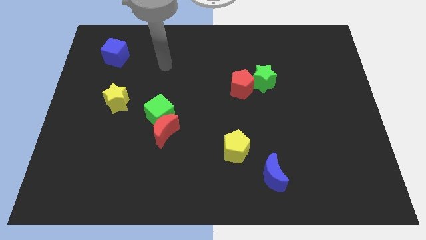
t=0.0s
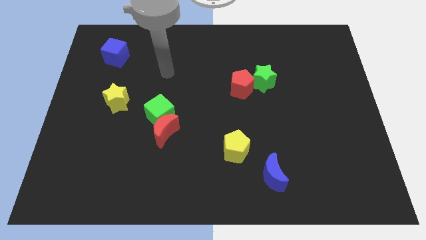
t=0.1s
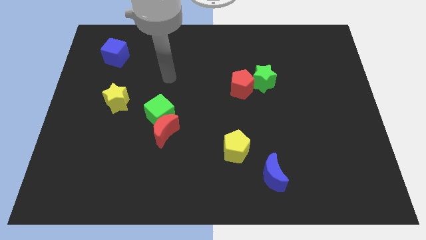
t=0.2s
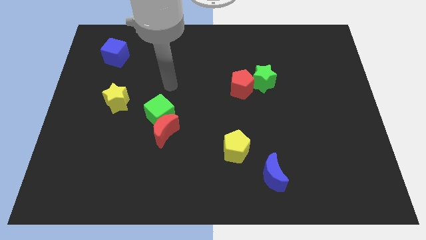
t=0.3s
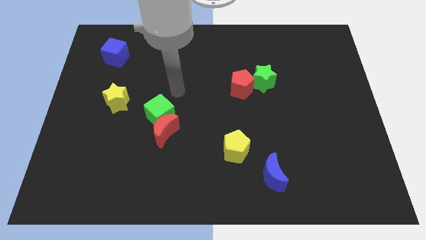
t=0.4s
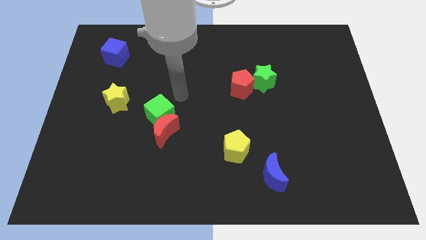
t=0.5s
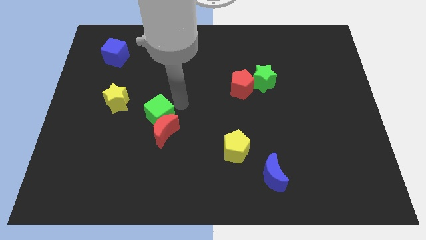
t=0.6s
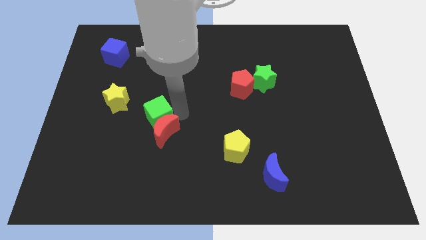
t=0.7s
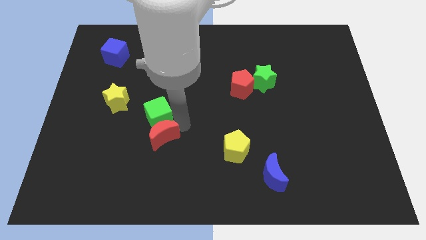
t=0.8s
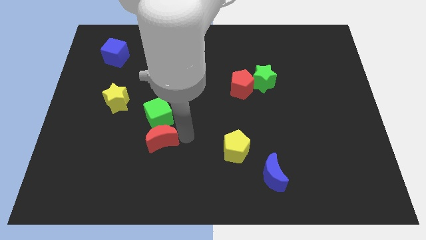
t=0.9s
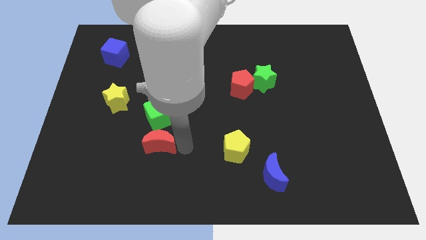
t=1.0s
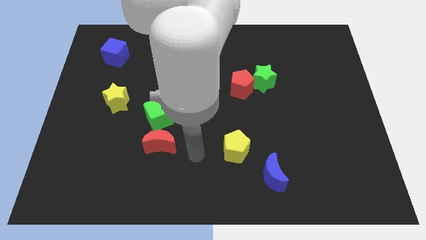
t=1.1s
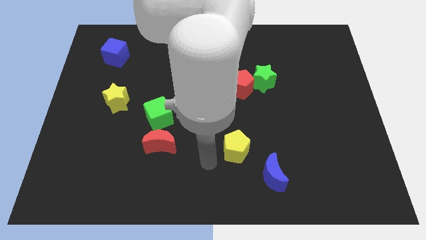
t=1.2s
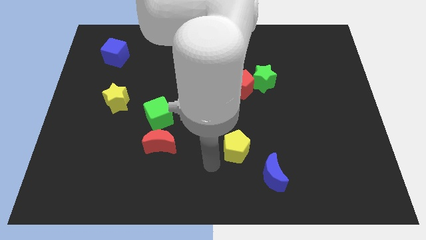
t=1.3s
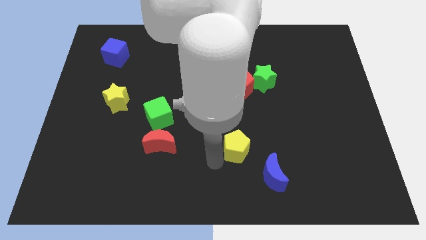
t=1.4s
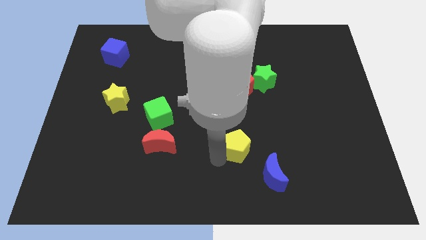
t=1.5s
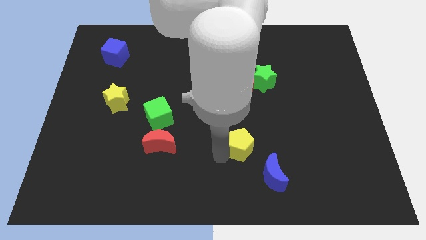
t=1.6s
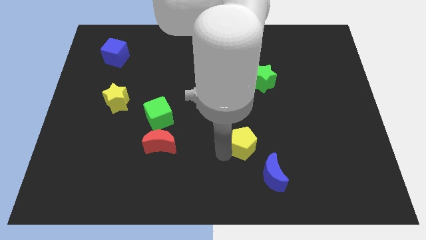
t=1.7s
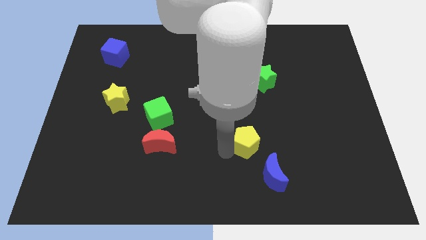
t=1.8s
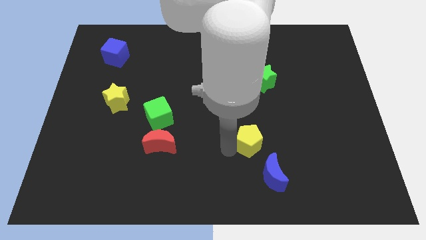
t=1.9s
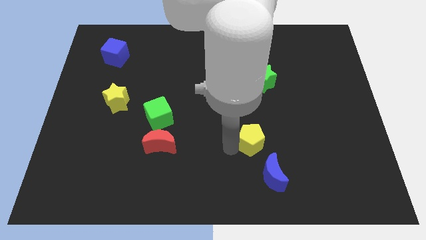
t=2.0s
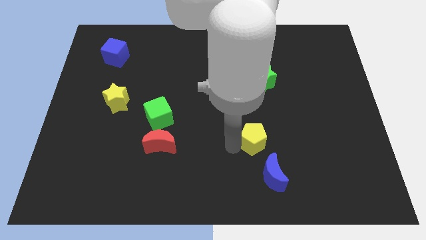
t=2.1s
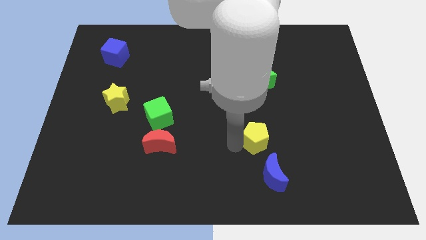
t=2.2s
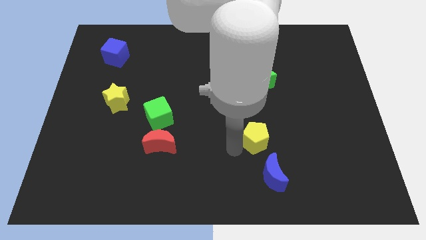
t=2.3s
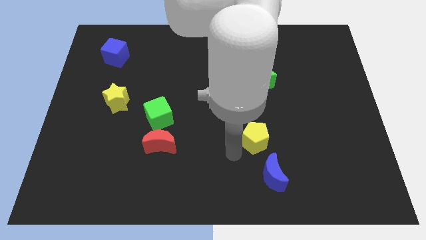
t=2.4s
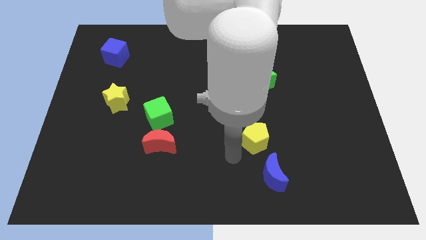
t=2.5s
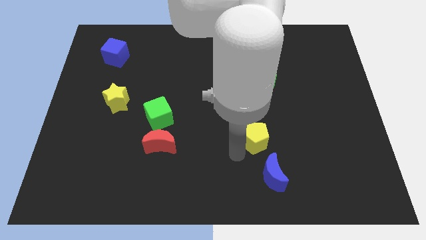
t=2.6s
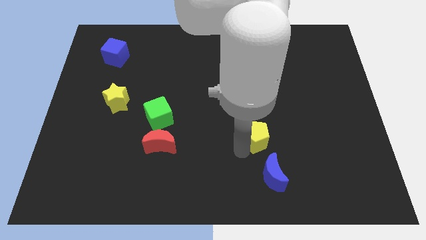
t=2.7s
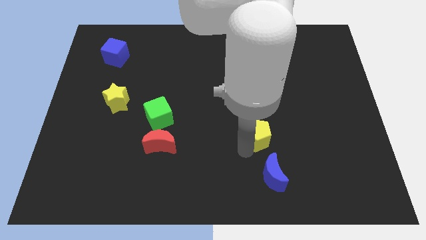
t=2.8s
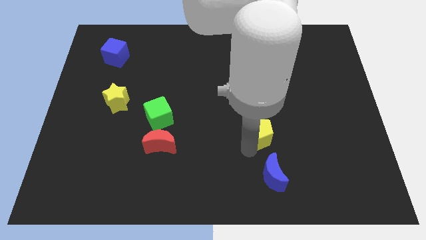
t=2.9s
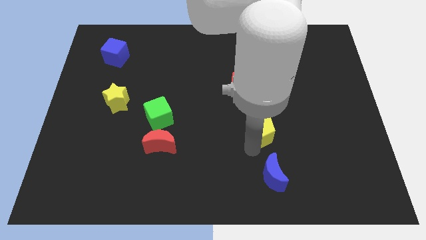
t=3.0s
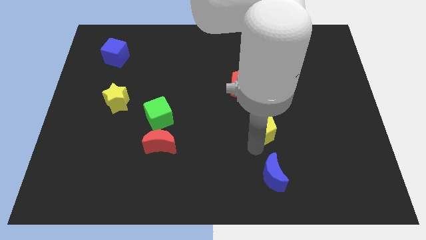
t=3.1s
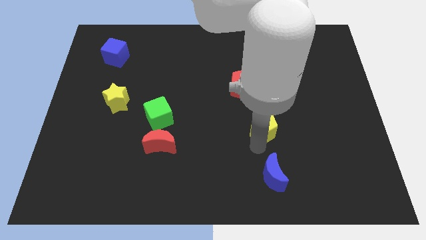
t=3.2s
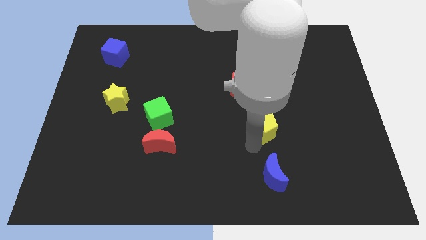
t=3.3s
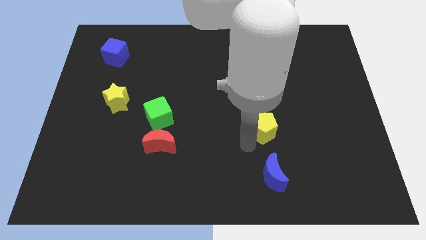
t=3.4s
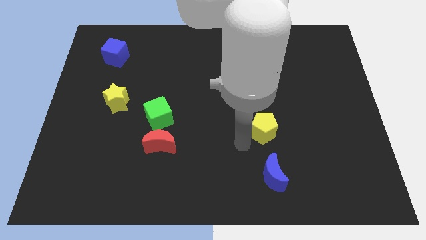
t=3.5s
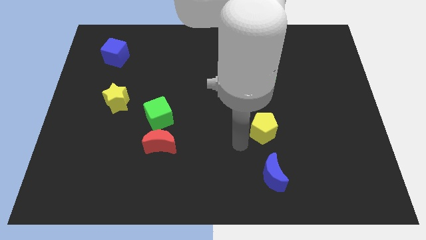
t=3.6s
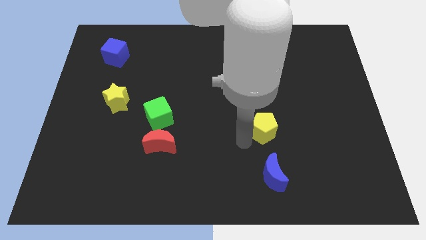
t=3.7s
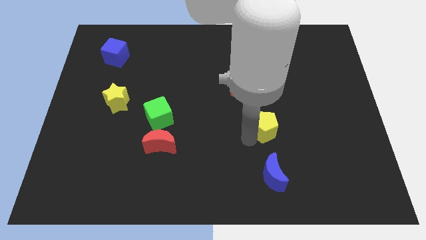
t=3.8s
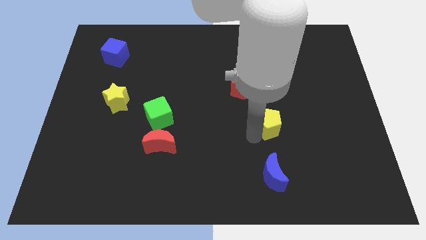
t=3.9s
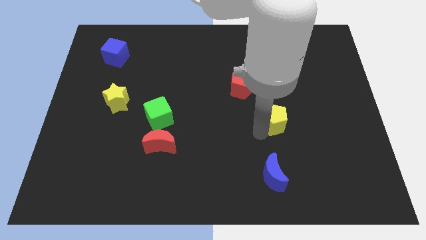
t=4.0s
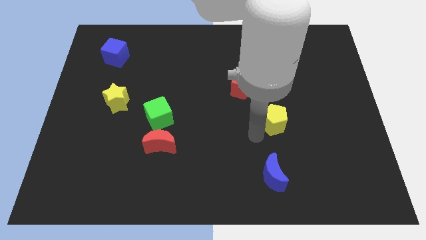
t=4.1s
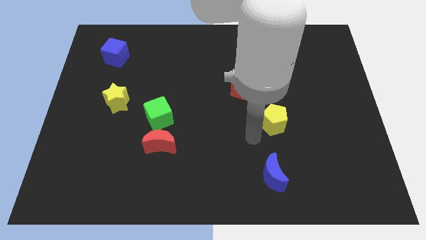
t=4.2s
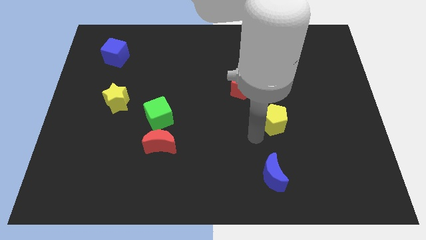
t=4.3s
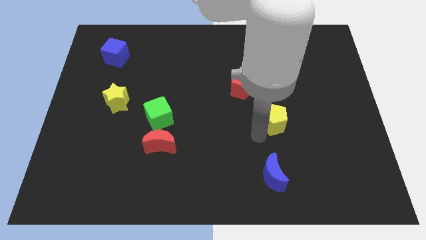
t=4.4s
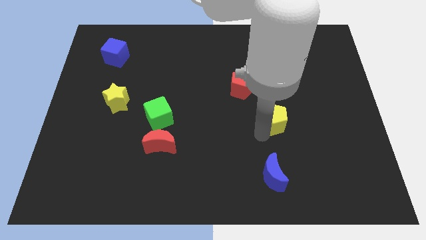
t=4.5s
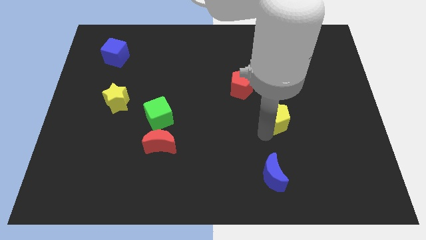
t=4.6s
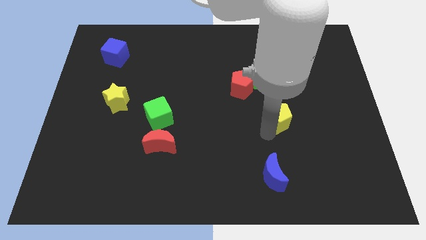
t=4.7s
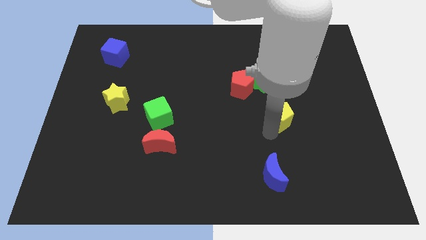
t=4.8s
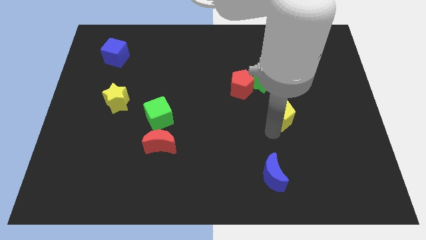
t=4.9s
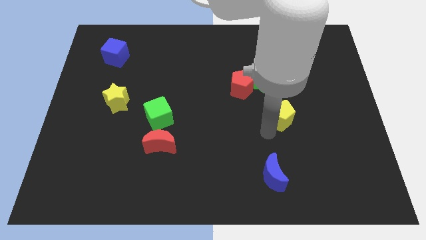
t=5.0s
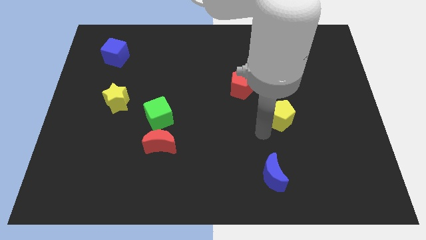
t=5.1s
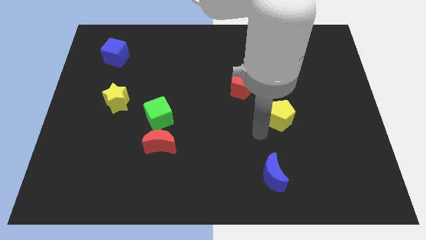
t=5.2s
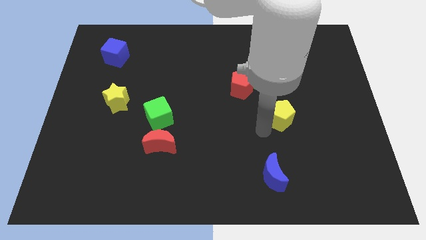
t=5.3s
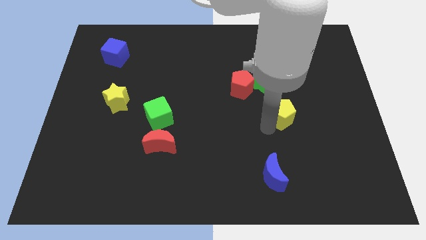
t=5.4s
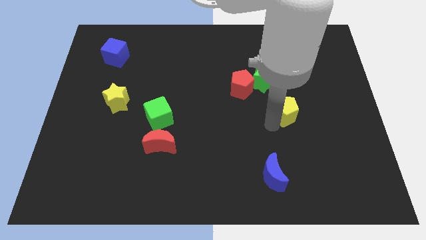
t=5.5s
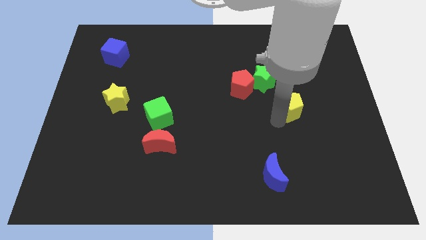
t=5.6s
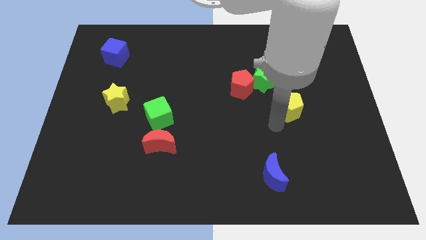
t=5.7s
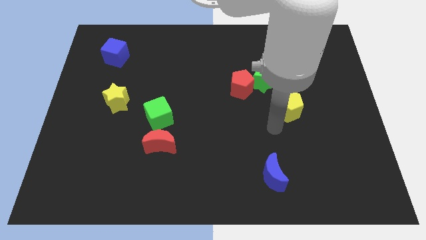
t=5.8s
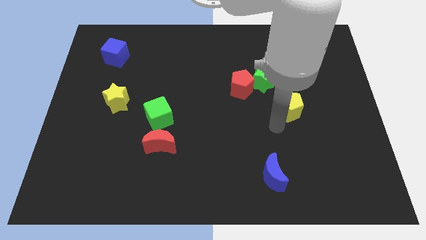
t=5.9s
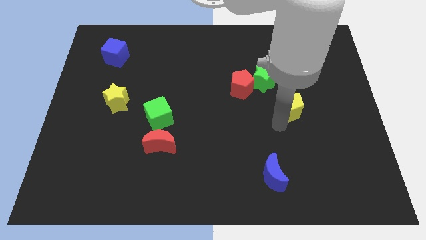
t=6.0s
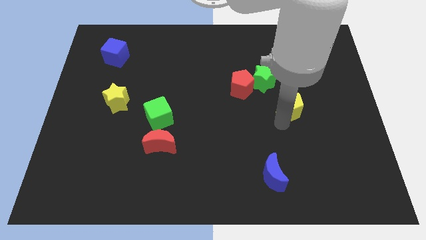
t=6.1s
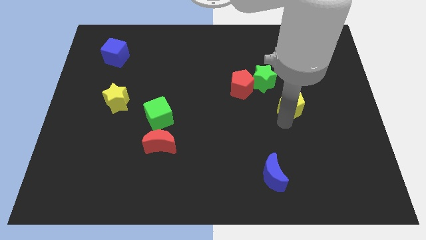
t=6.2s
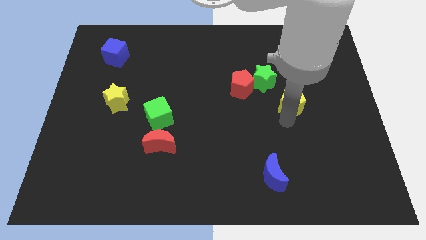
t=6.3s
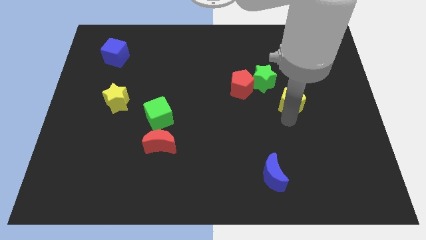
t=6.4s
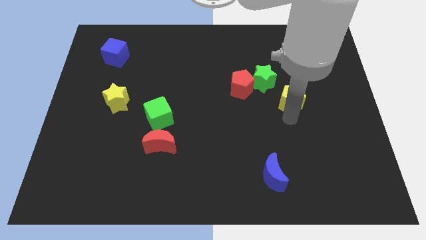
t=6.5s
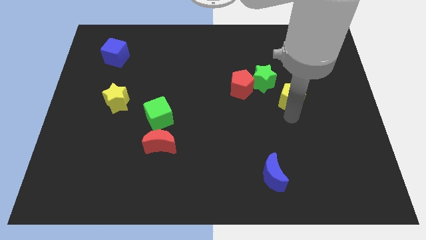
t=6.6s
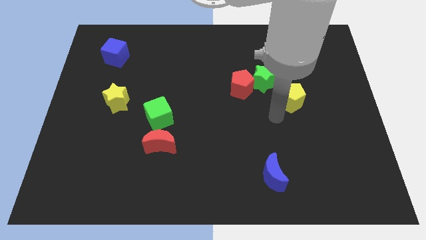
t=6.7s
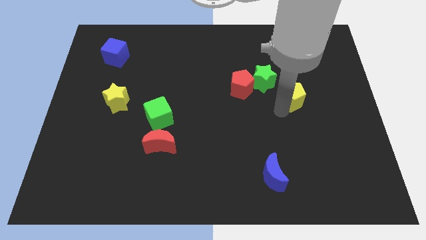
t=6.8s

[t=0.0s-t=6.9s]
move the yellow pentagon diagonally upwards and to the right

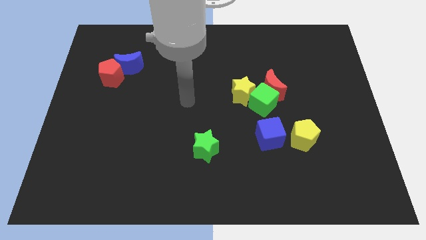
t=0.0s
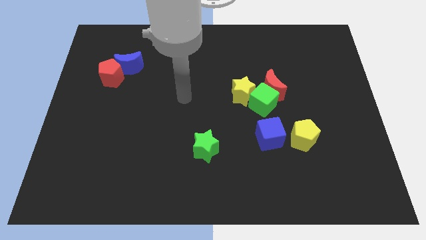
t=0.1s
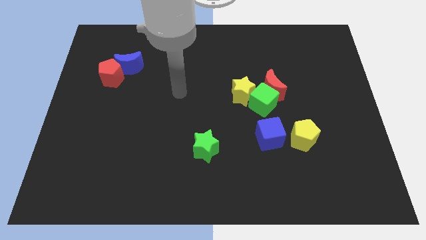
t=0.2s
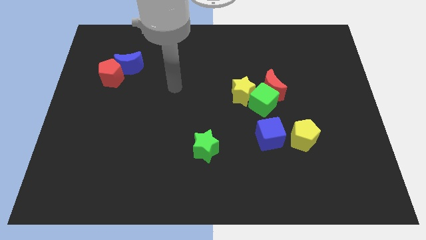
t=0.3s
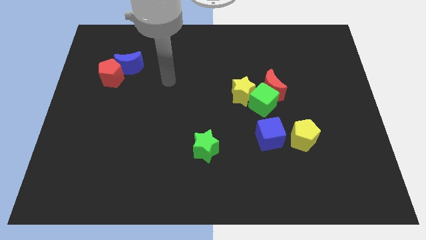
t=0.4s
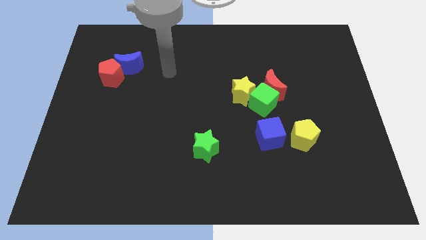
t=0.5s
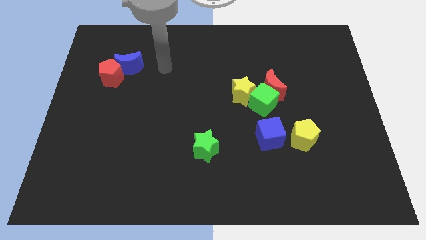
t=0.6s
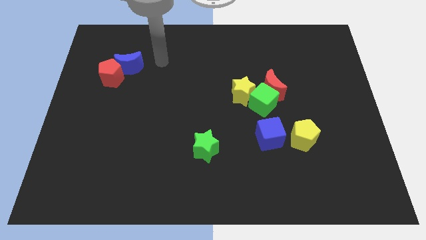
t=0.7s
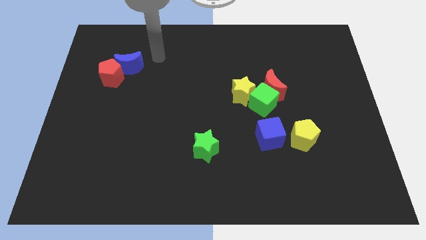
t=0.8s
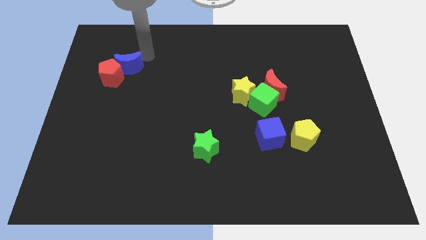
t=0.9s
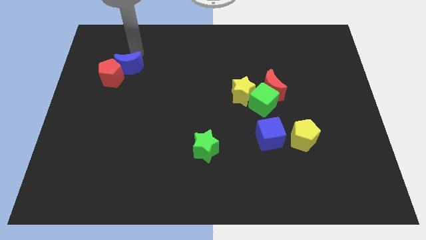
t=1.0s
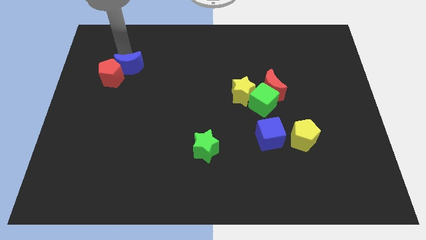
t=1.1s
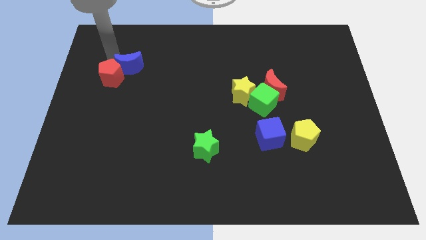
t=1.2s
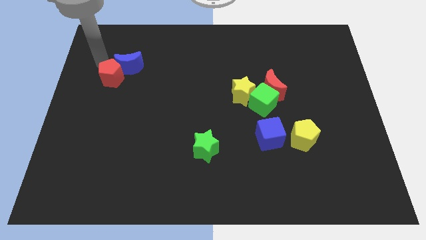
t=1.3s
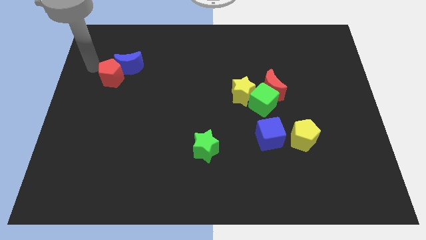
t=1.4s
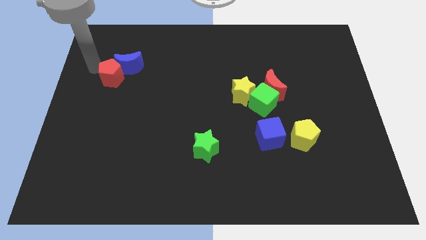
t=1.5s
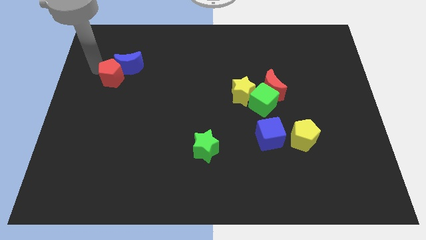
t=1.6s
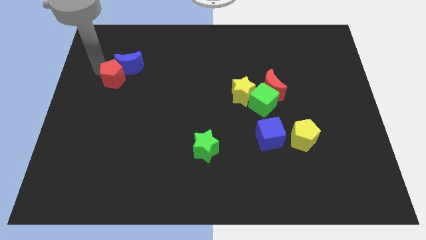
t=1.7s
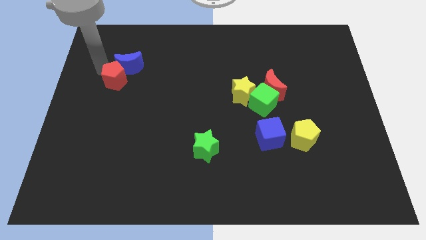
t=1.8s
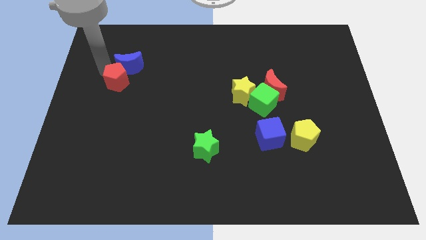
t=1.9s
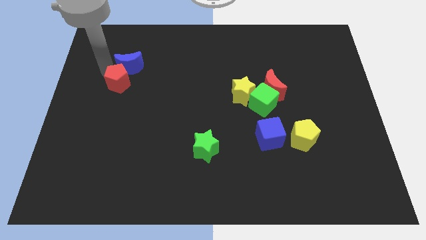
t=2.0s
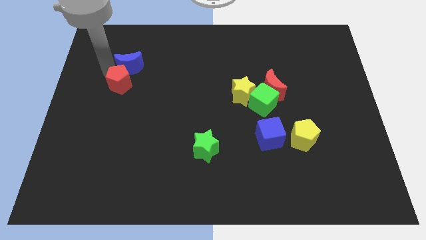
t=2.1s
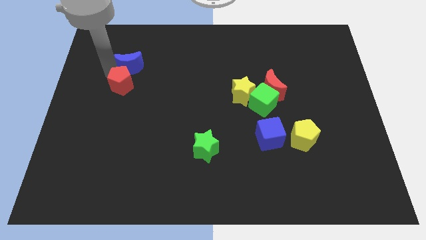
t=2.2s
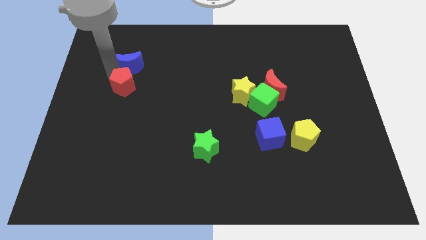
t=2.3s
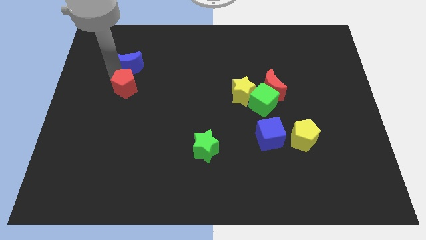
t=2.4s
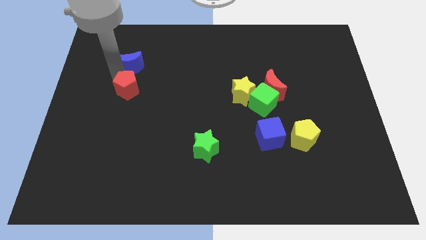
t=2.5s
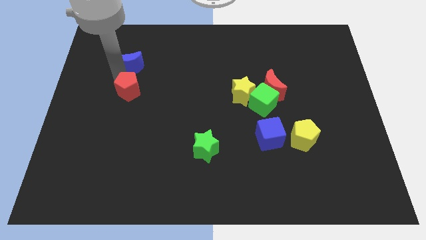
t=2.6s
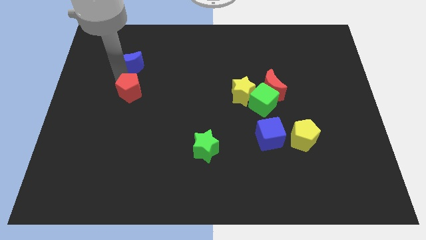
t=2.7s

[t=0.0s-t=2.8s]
move the red pentagon somewhat down and to the right diagonally
